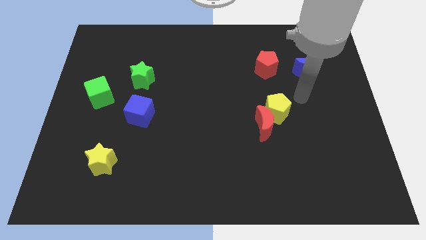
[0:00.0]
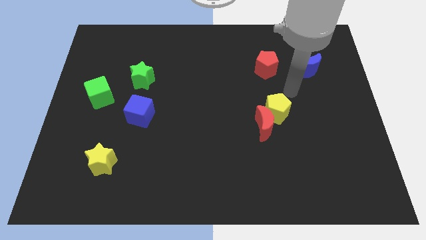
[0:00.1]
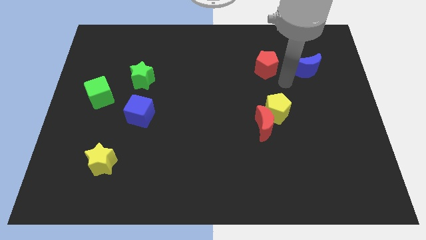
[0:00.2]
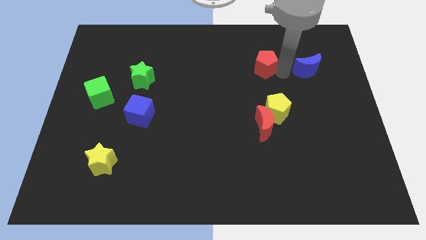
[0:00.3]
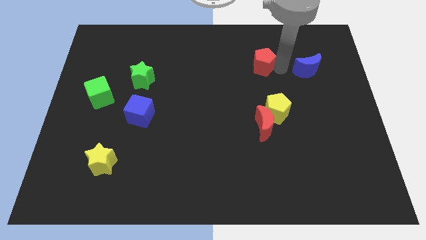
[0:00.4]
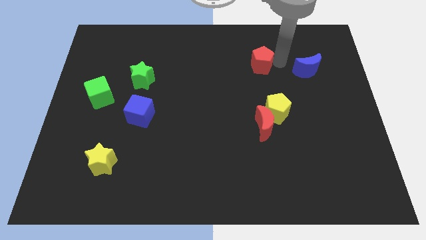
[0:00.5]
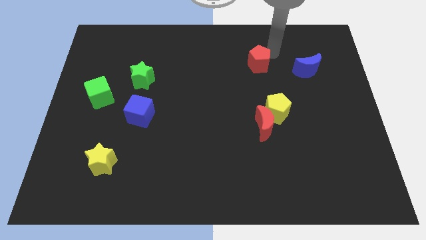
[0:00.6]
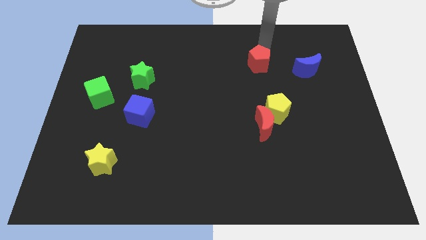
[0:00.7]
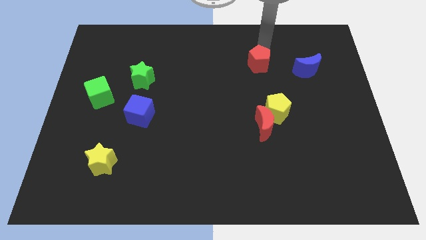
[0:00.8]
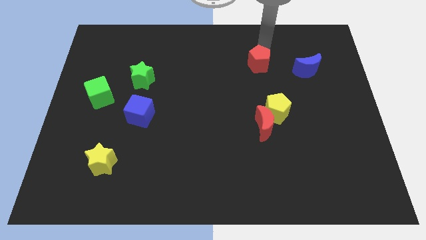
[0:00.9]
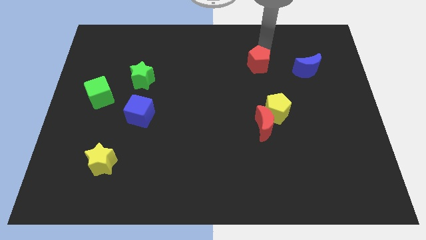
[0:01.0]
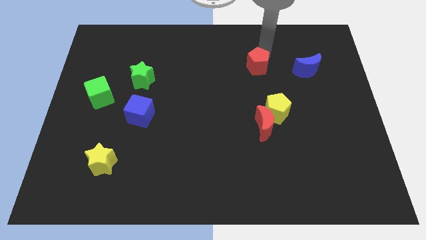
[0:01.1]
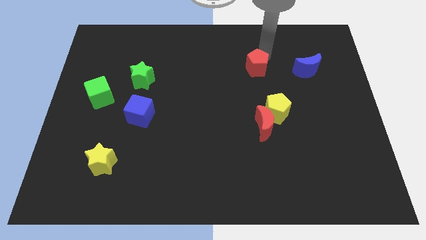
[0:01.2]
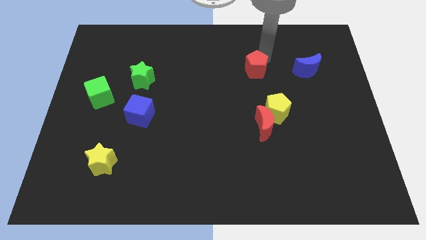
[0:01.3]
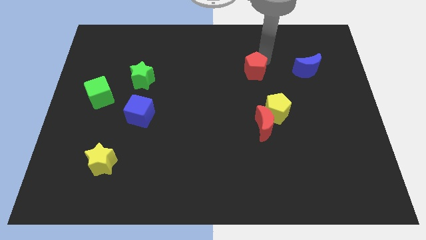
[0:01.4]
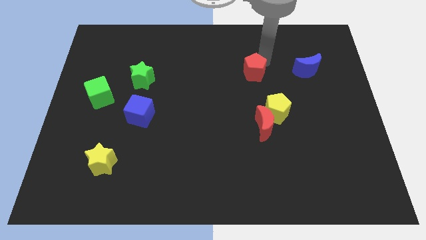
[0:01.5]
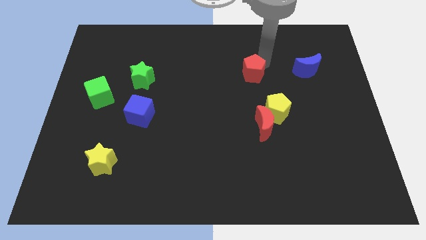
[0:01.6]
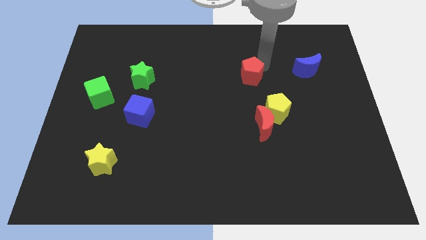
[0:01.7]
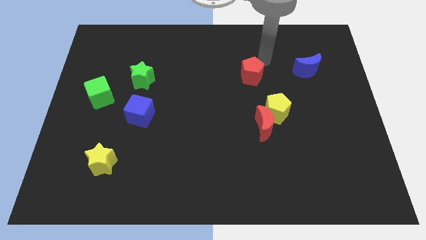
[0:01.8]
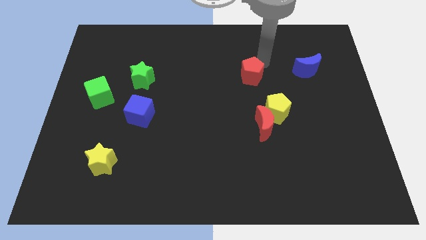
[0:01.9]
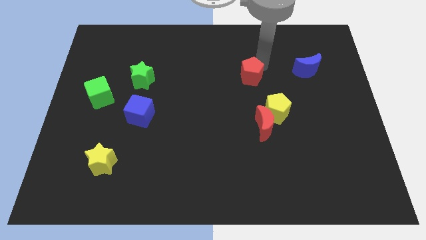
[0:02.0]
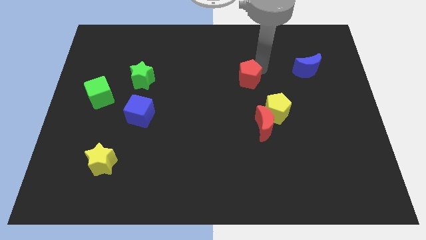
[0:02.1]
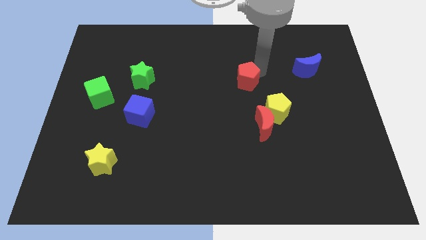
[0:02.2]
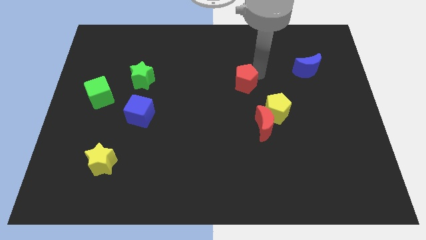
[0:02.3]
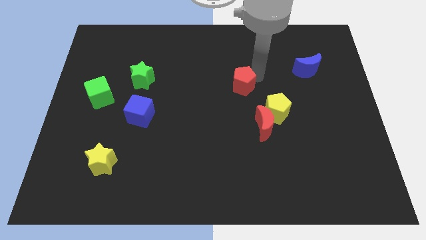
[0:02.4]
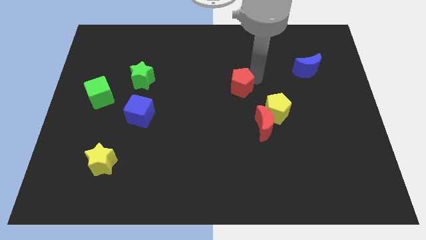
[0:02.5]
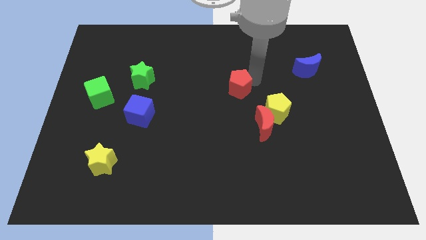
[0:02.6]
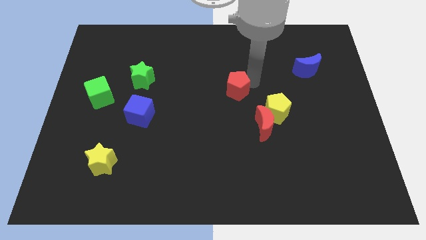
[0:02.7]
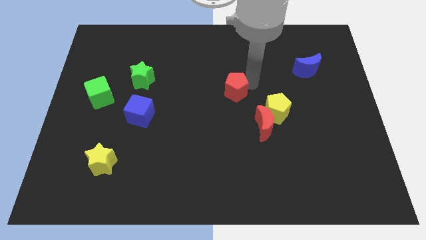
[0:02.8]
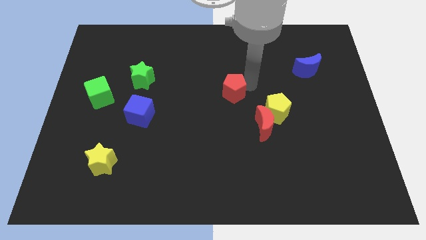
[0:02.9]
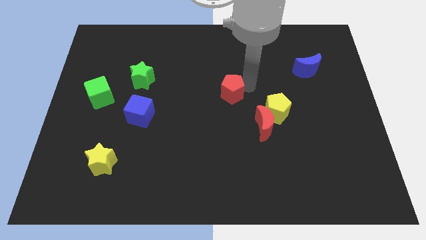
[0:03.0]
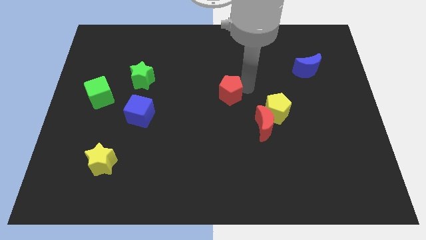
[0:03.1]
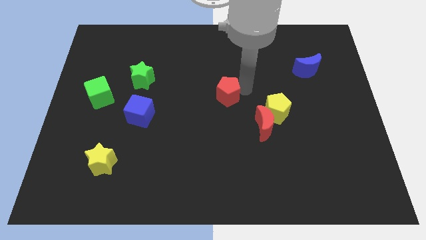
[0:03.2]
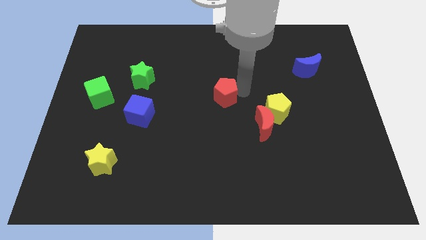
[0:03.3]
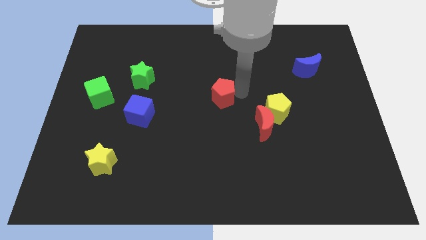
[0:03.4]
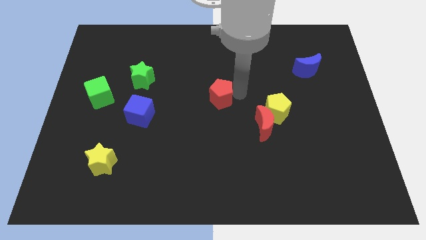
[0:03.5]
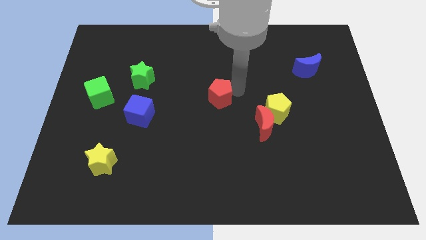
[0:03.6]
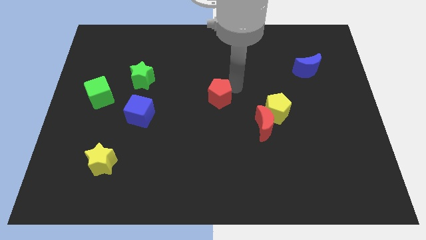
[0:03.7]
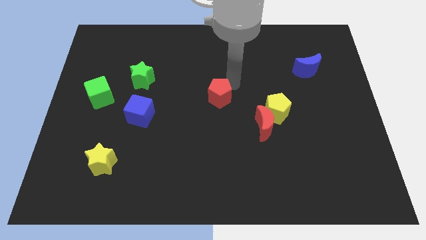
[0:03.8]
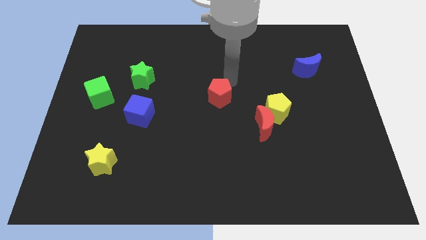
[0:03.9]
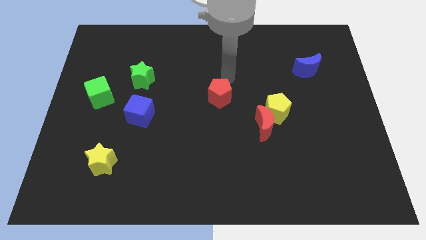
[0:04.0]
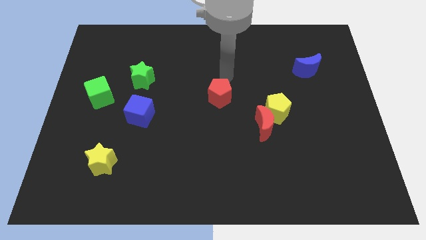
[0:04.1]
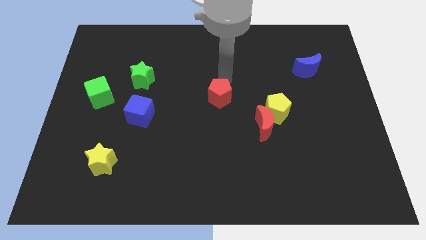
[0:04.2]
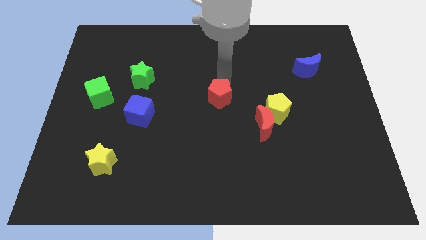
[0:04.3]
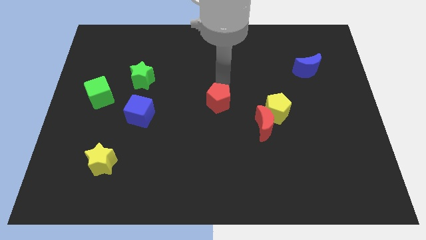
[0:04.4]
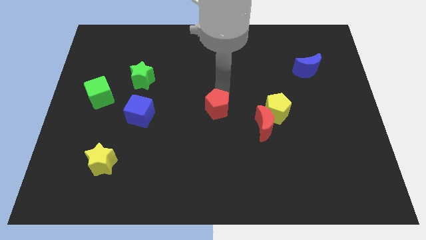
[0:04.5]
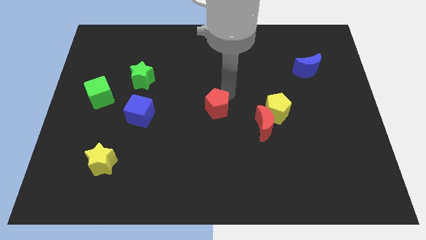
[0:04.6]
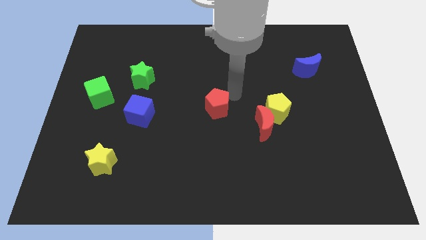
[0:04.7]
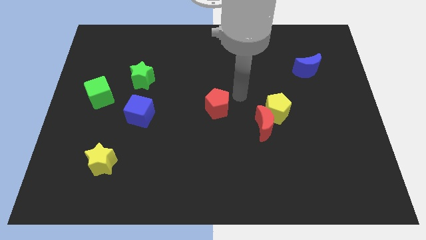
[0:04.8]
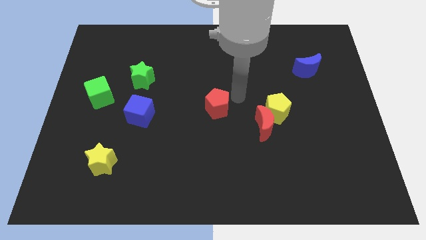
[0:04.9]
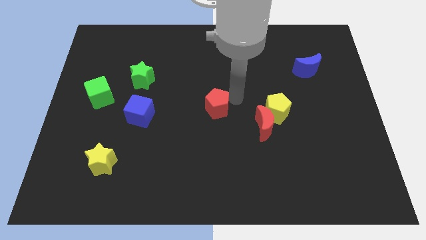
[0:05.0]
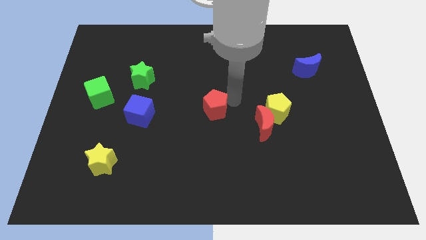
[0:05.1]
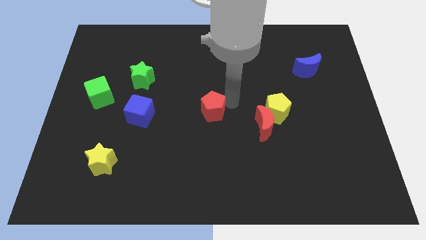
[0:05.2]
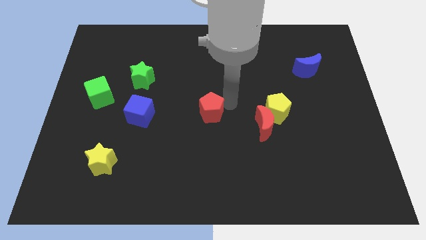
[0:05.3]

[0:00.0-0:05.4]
move the red pentagon downwards and to the left

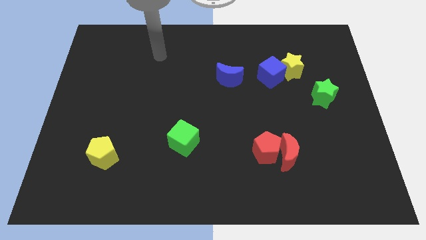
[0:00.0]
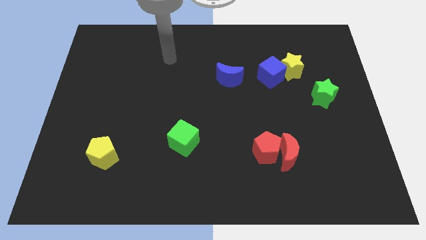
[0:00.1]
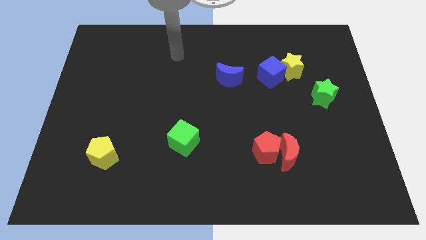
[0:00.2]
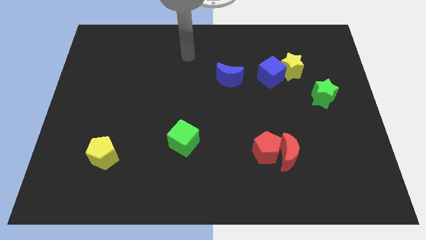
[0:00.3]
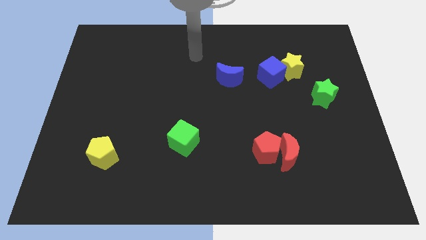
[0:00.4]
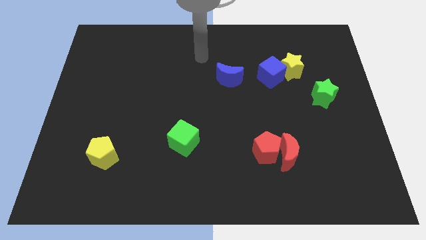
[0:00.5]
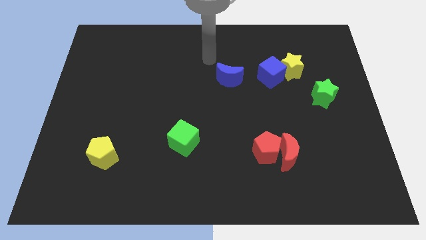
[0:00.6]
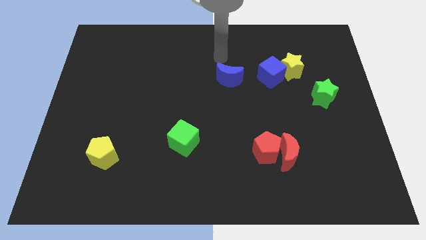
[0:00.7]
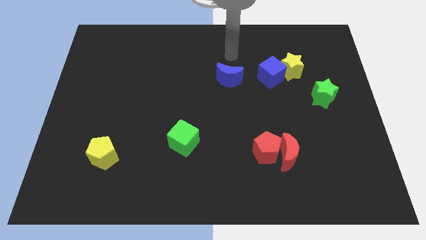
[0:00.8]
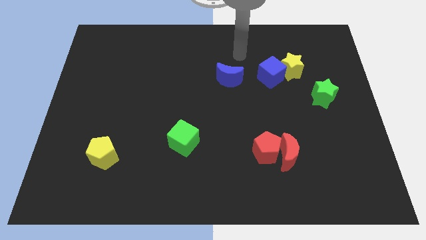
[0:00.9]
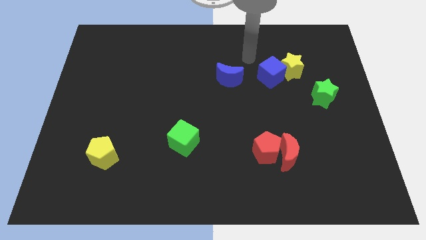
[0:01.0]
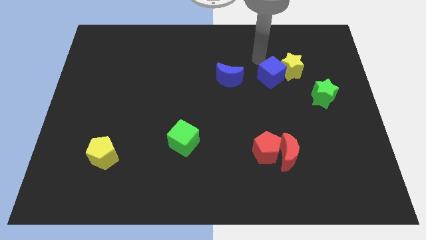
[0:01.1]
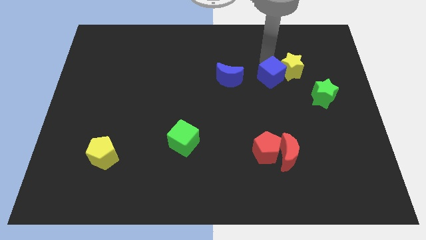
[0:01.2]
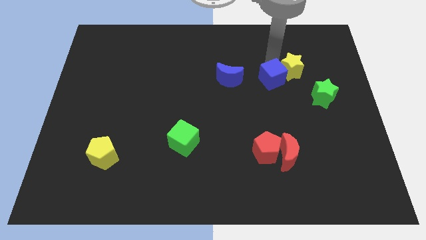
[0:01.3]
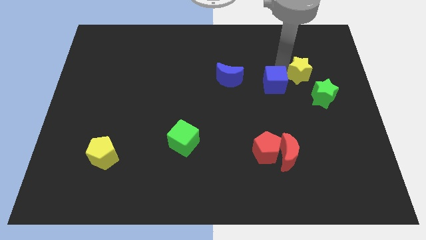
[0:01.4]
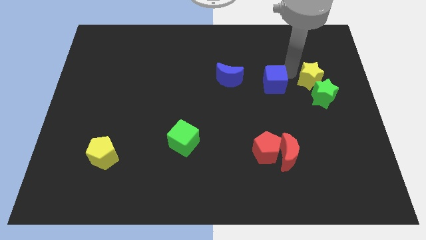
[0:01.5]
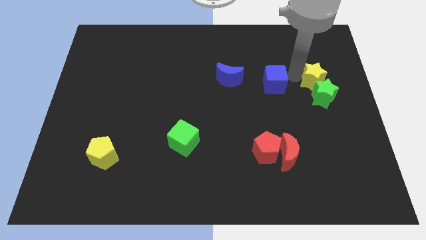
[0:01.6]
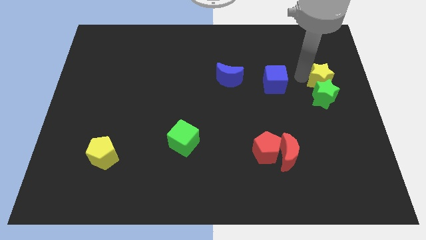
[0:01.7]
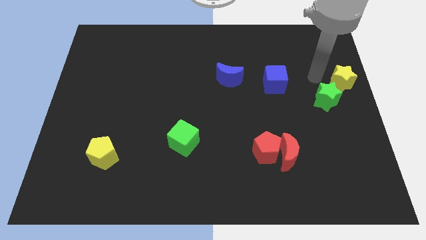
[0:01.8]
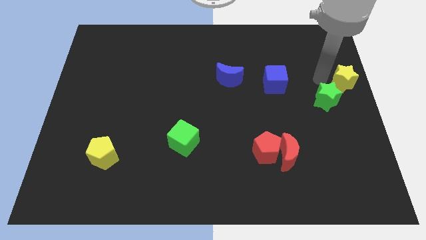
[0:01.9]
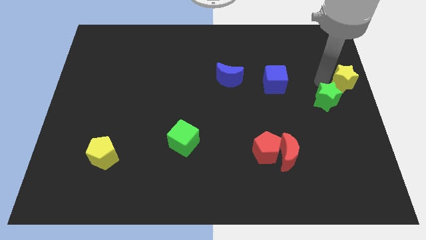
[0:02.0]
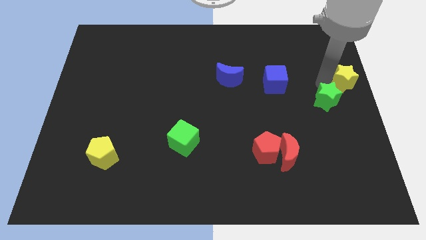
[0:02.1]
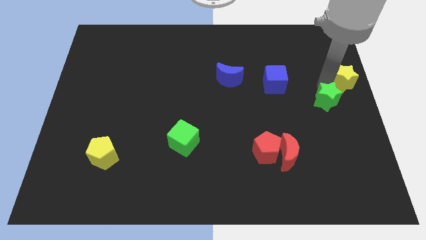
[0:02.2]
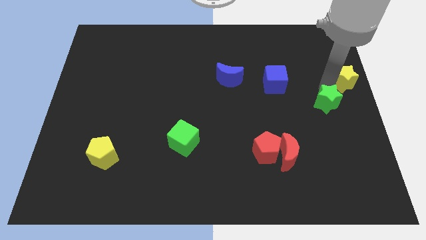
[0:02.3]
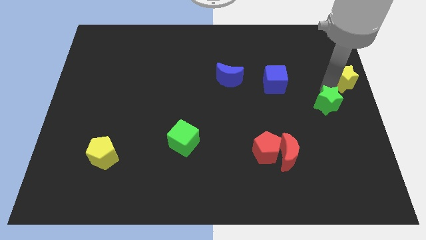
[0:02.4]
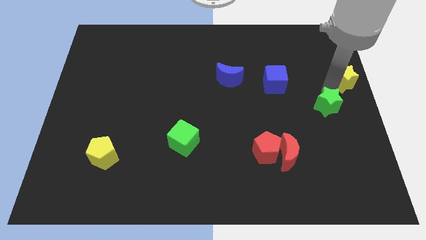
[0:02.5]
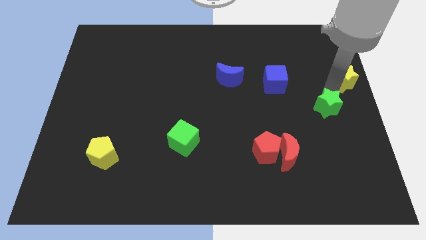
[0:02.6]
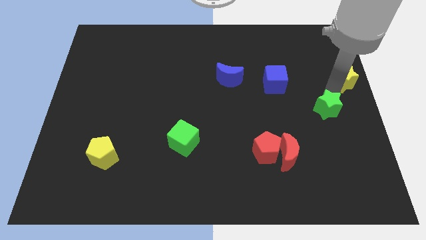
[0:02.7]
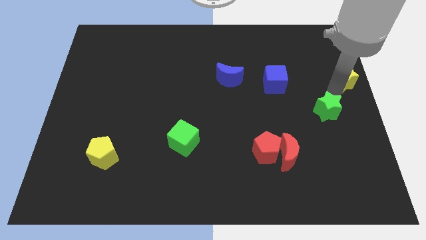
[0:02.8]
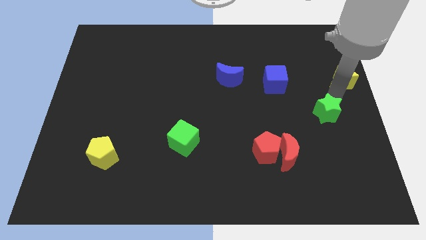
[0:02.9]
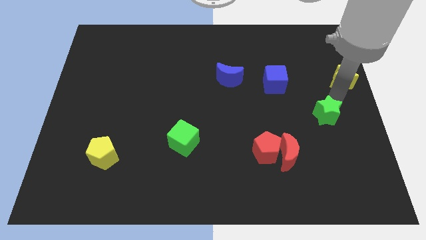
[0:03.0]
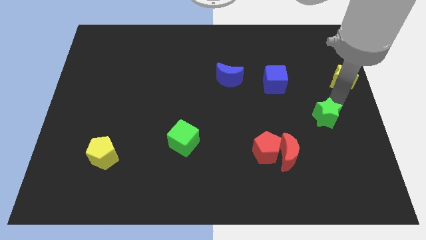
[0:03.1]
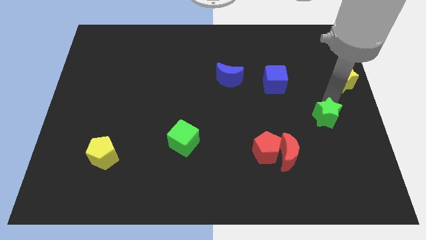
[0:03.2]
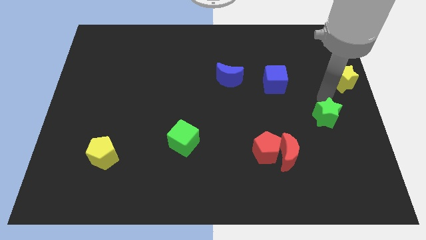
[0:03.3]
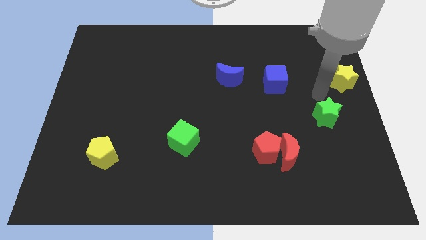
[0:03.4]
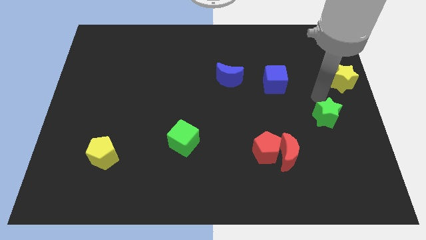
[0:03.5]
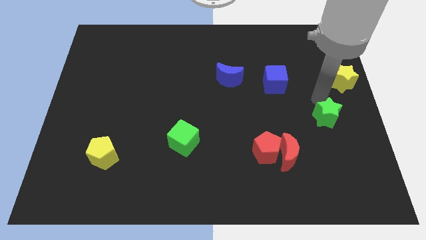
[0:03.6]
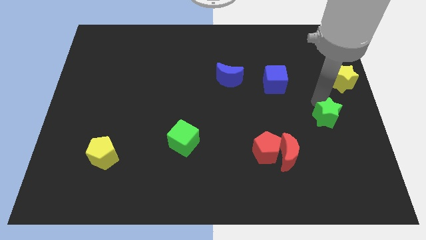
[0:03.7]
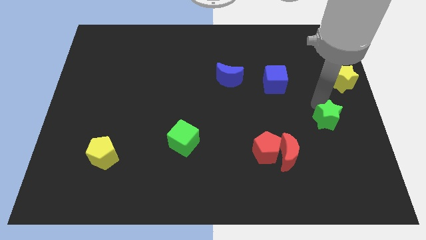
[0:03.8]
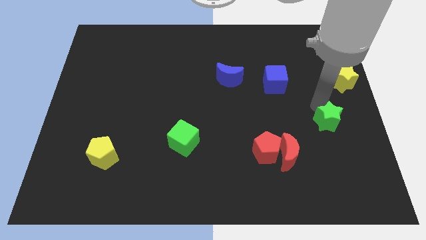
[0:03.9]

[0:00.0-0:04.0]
push the green star a little bit downwards
